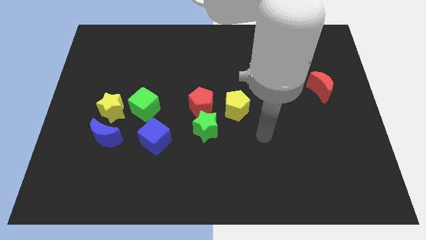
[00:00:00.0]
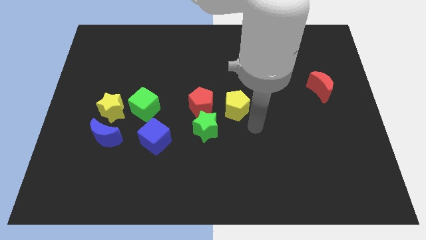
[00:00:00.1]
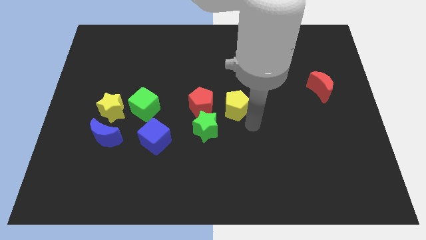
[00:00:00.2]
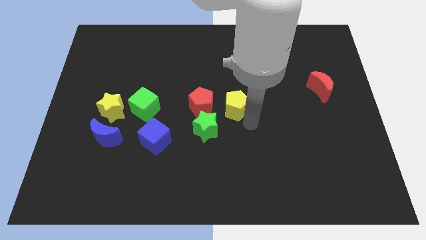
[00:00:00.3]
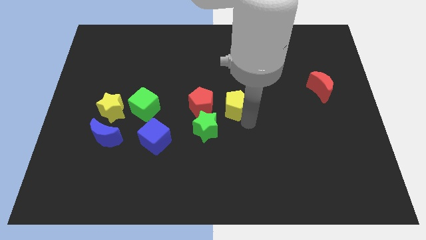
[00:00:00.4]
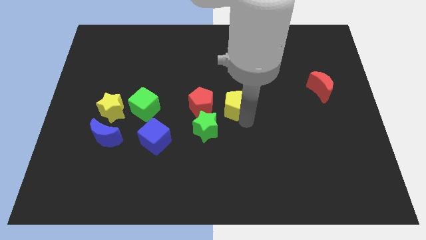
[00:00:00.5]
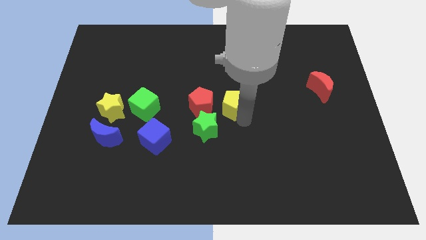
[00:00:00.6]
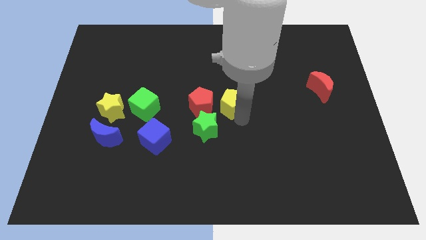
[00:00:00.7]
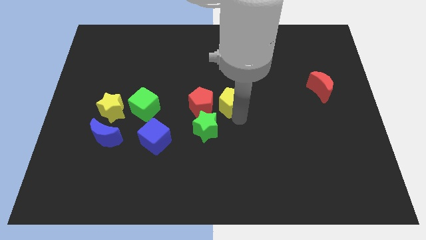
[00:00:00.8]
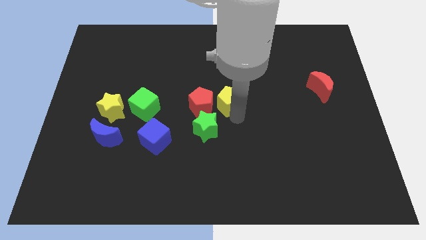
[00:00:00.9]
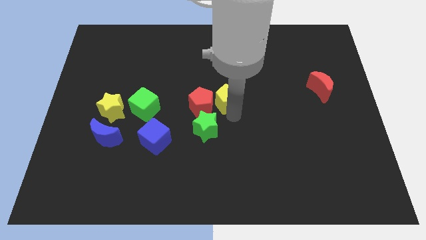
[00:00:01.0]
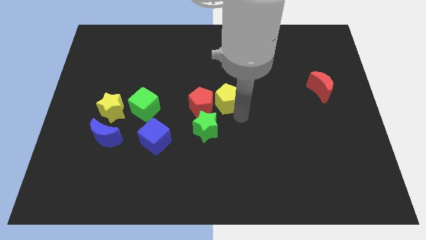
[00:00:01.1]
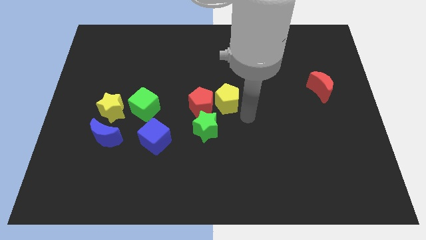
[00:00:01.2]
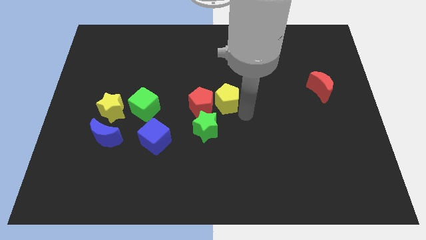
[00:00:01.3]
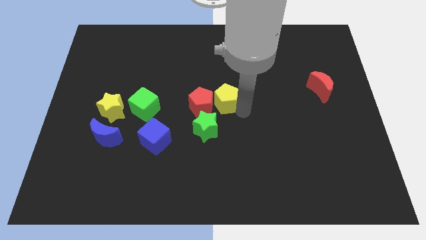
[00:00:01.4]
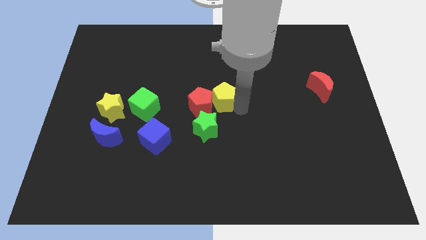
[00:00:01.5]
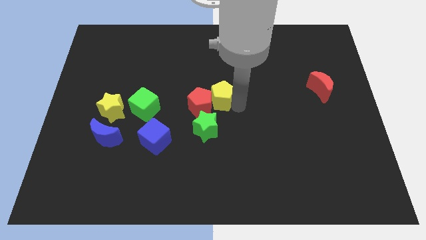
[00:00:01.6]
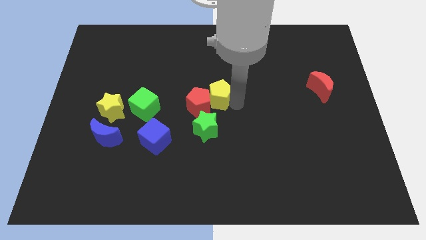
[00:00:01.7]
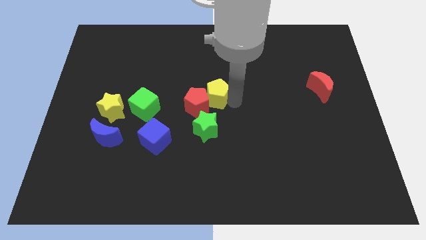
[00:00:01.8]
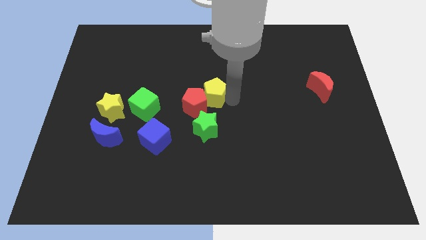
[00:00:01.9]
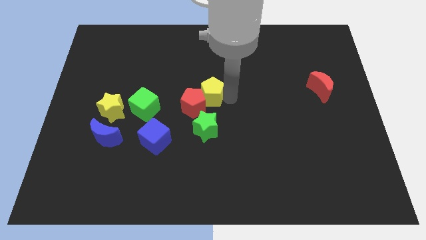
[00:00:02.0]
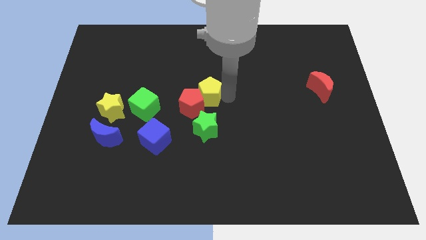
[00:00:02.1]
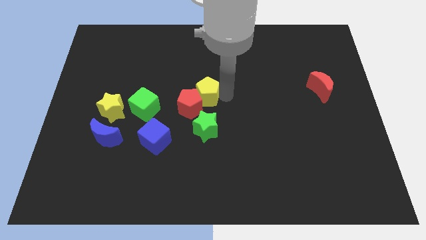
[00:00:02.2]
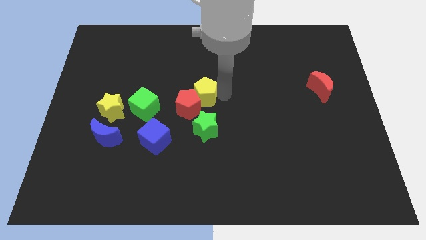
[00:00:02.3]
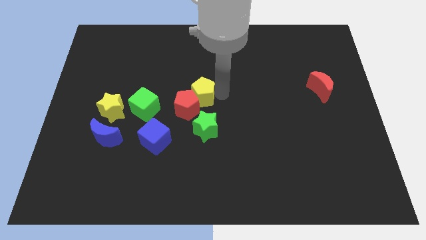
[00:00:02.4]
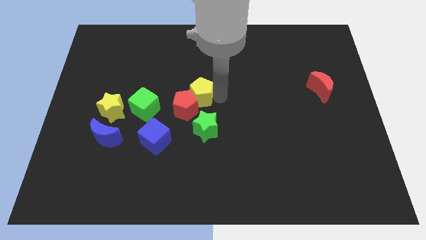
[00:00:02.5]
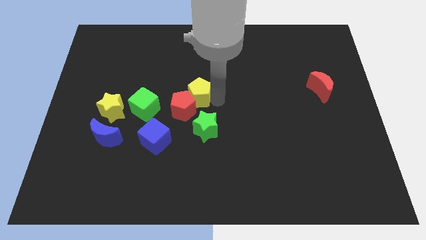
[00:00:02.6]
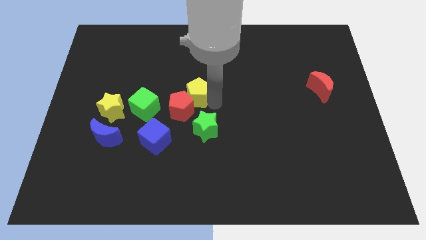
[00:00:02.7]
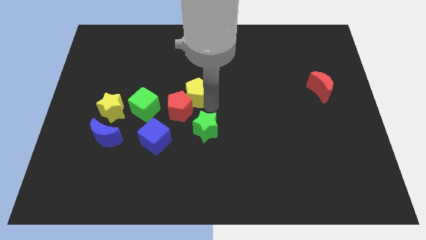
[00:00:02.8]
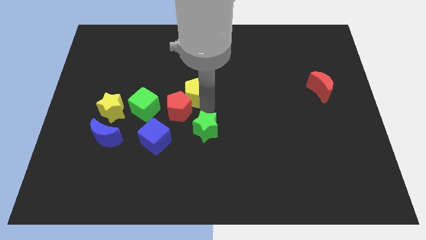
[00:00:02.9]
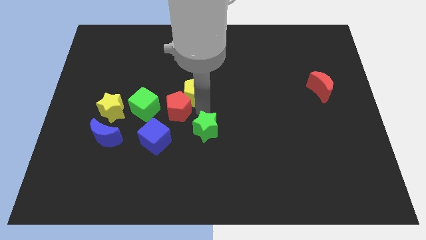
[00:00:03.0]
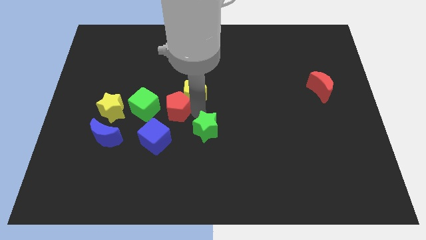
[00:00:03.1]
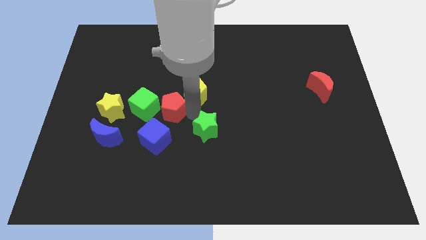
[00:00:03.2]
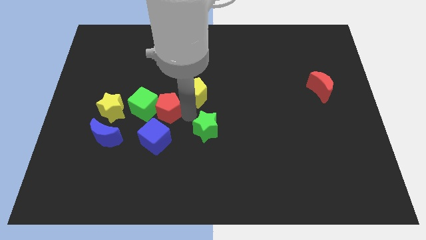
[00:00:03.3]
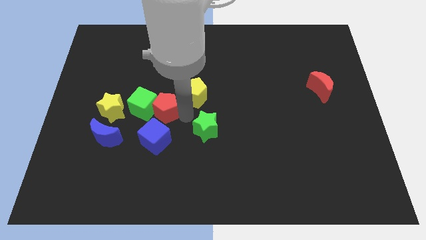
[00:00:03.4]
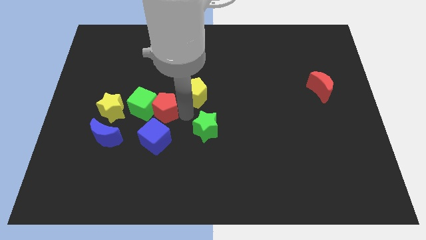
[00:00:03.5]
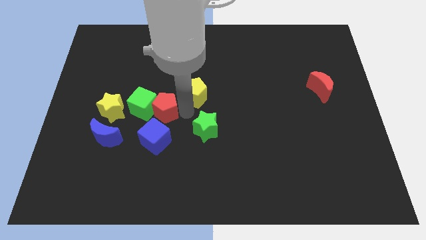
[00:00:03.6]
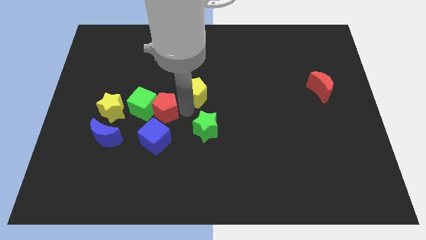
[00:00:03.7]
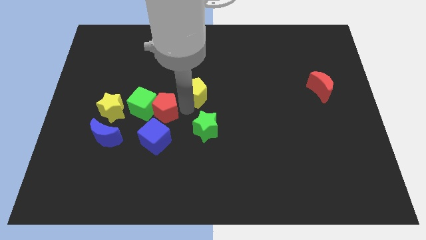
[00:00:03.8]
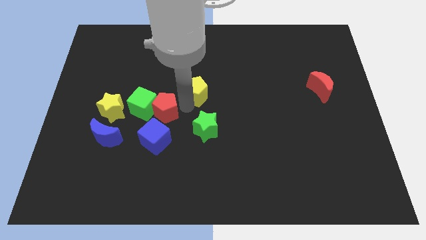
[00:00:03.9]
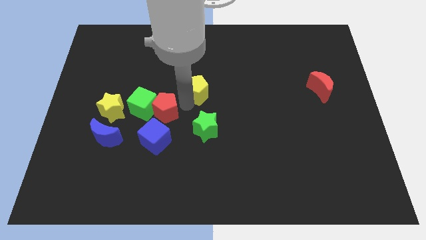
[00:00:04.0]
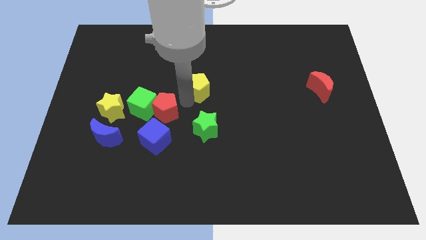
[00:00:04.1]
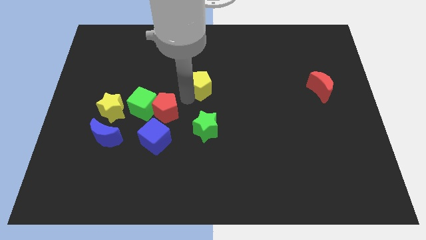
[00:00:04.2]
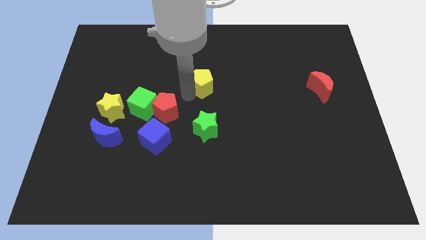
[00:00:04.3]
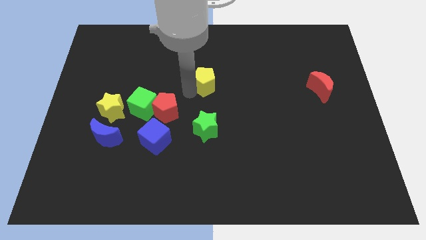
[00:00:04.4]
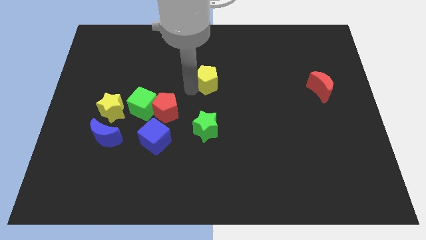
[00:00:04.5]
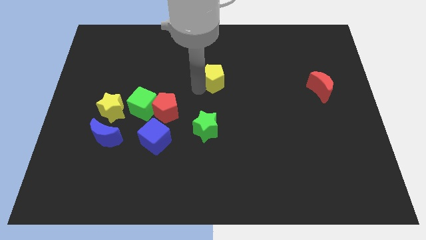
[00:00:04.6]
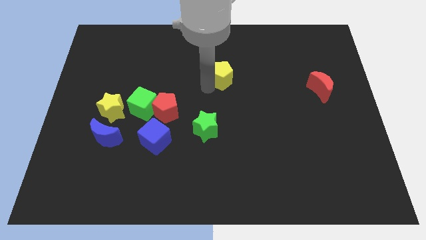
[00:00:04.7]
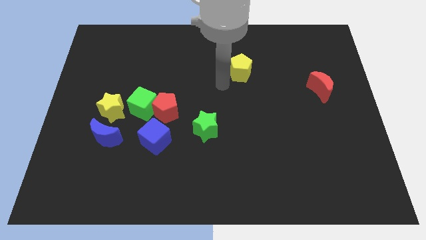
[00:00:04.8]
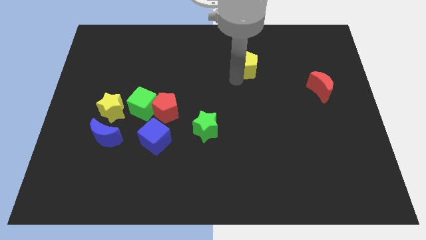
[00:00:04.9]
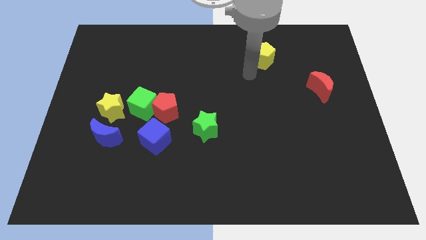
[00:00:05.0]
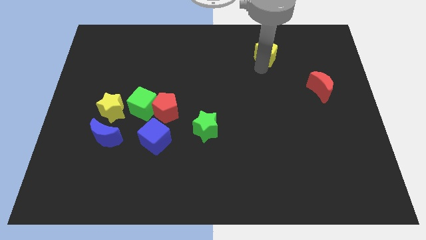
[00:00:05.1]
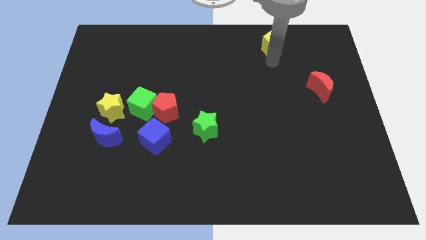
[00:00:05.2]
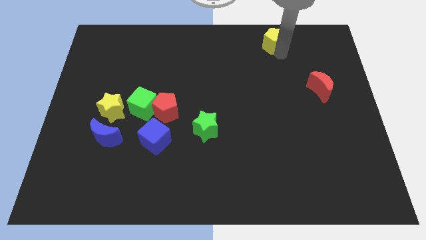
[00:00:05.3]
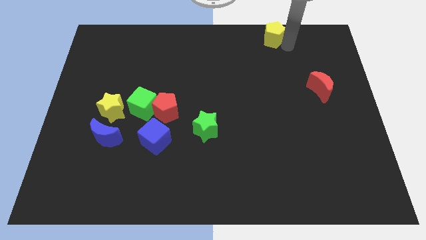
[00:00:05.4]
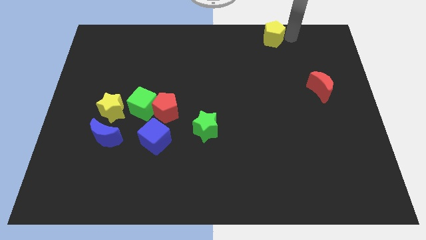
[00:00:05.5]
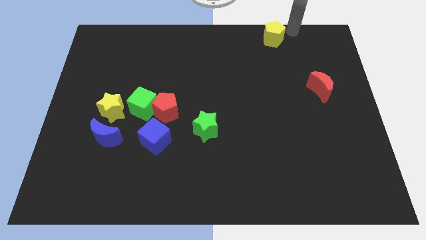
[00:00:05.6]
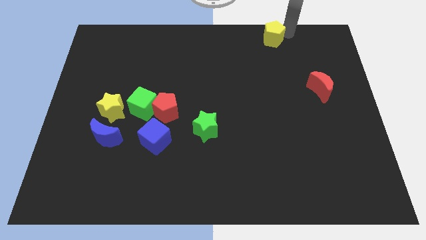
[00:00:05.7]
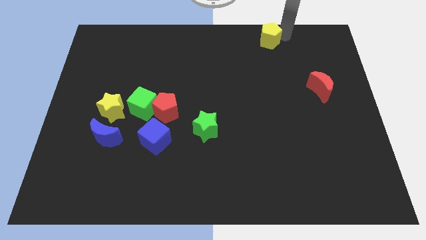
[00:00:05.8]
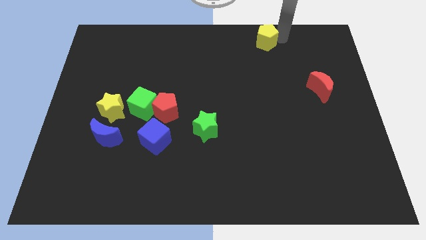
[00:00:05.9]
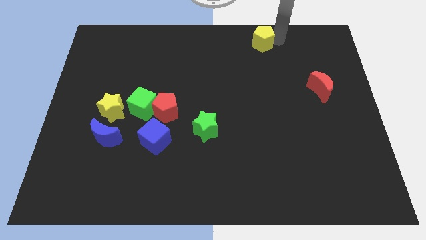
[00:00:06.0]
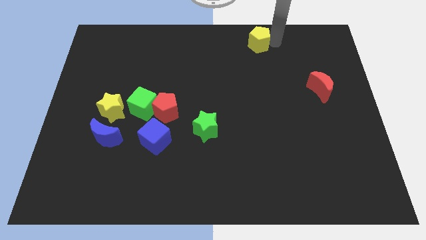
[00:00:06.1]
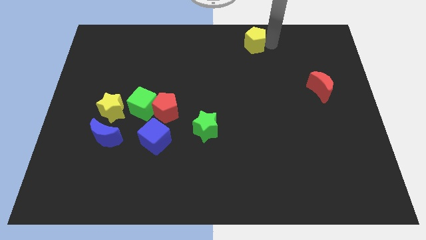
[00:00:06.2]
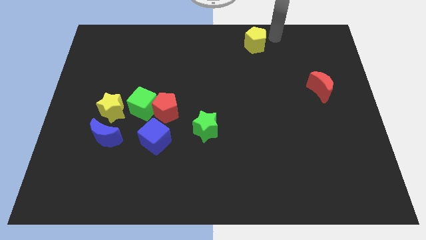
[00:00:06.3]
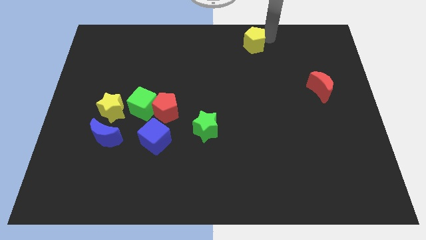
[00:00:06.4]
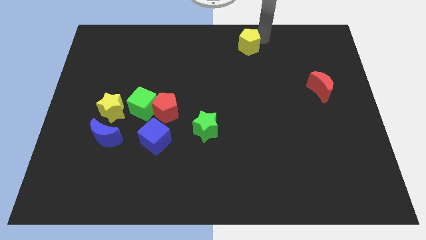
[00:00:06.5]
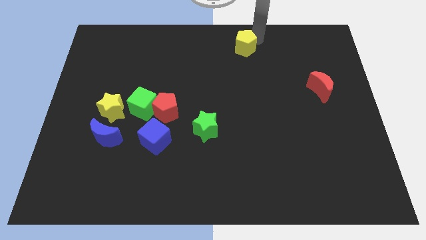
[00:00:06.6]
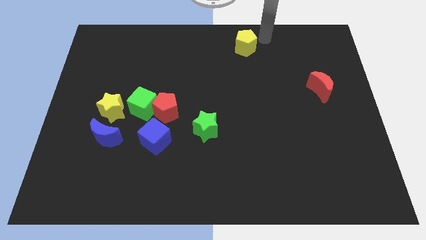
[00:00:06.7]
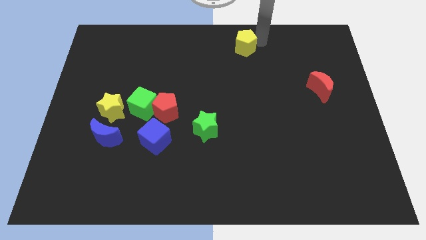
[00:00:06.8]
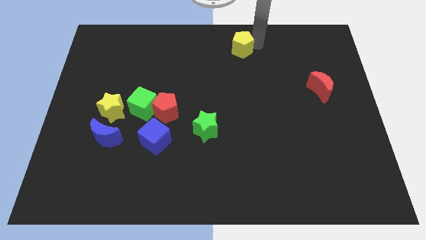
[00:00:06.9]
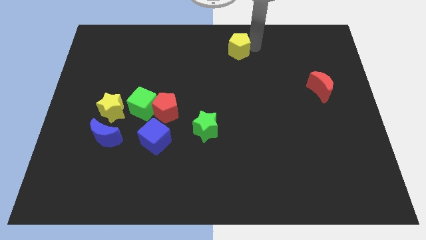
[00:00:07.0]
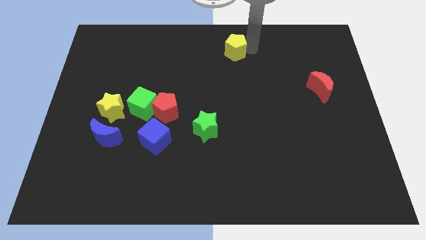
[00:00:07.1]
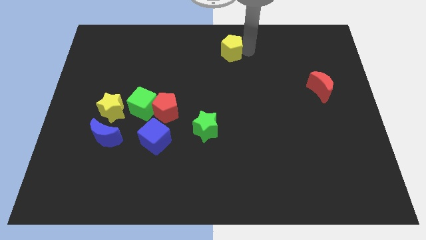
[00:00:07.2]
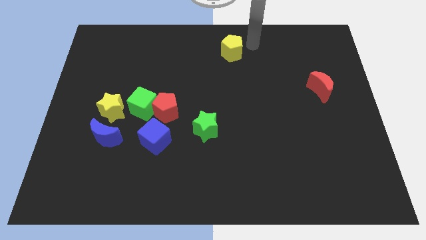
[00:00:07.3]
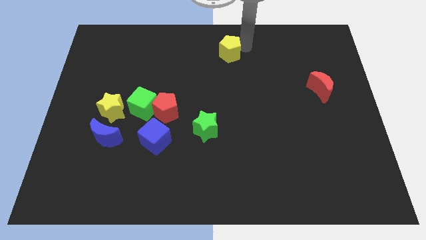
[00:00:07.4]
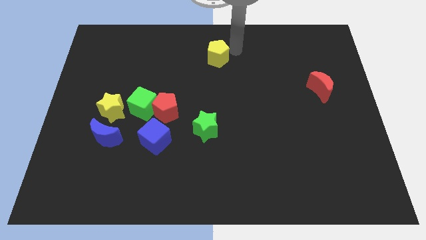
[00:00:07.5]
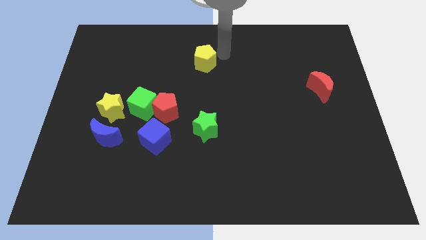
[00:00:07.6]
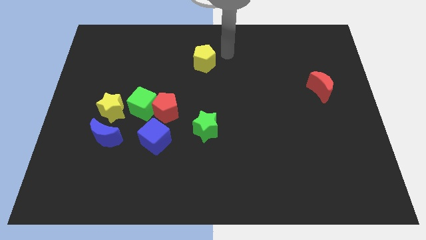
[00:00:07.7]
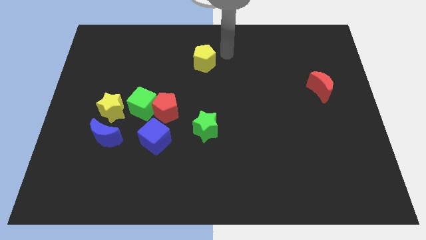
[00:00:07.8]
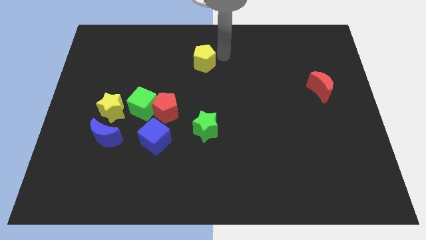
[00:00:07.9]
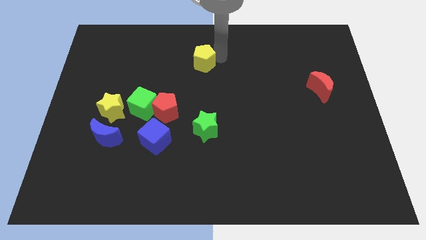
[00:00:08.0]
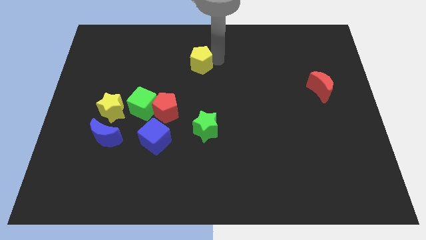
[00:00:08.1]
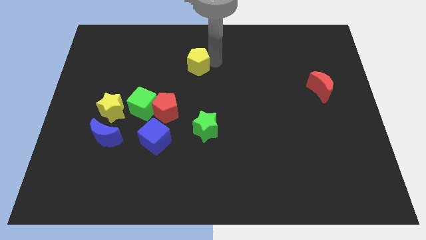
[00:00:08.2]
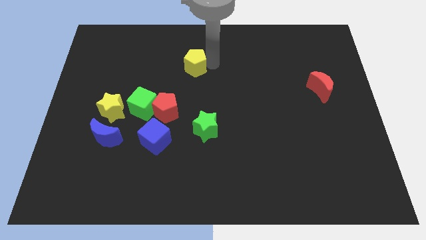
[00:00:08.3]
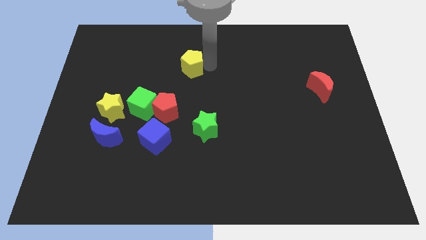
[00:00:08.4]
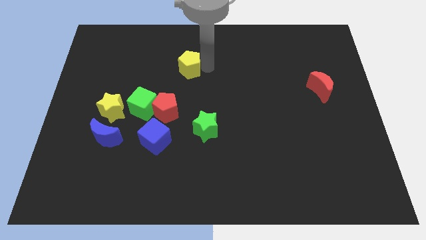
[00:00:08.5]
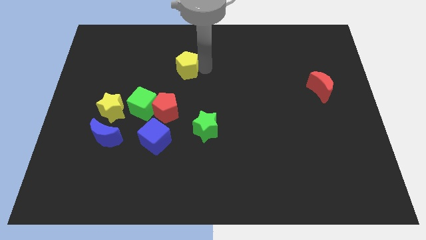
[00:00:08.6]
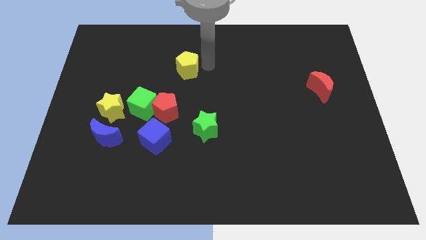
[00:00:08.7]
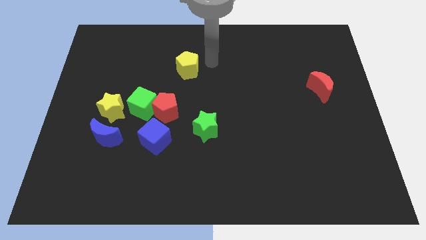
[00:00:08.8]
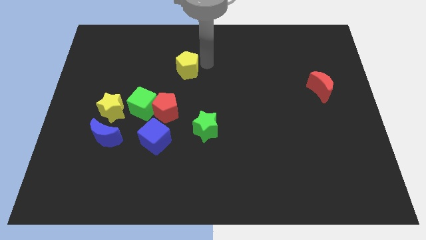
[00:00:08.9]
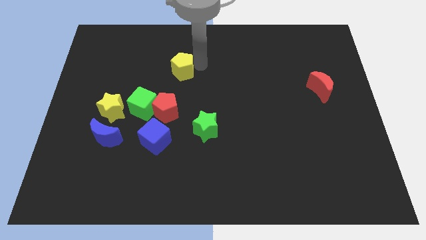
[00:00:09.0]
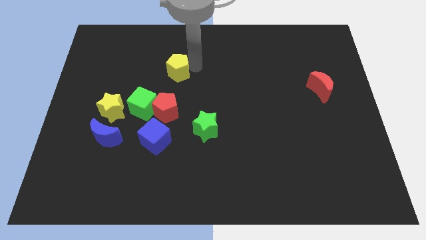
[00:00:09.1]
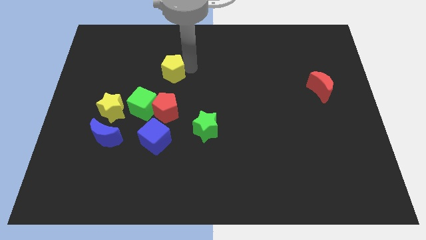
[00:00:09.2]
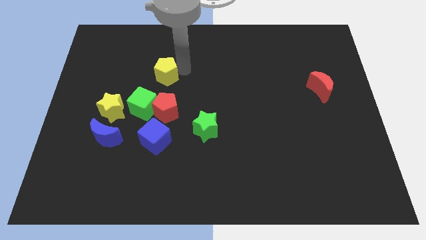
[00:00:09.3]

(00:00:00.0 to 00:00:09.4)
push the yellow pentagon above the green cube
